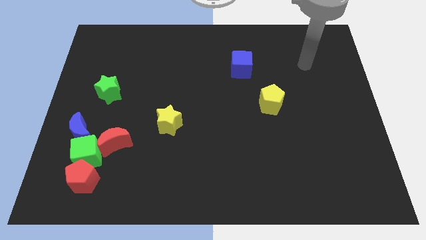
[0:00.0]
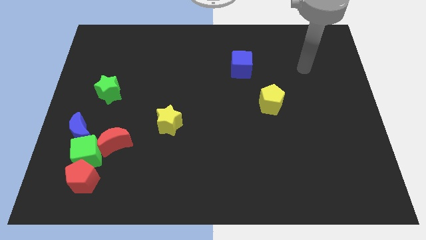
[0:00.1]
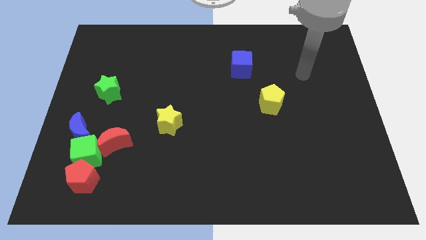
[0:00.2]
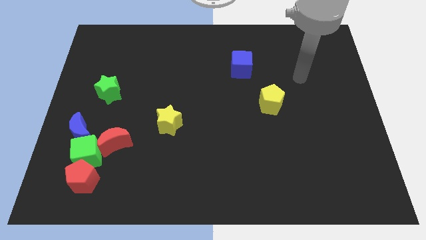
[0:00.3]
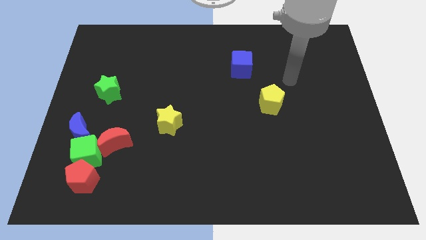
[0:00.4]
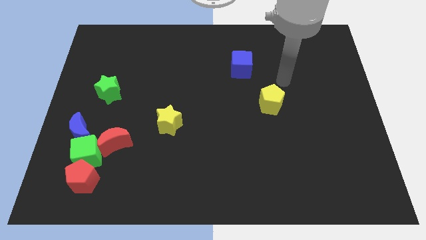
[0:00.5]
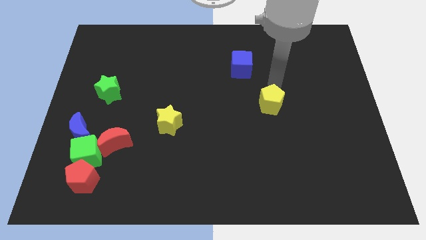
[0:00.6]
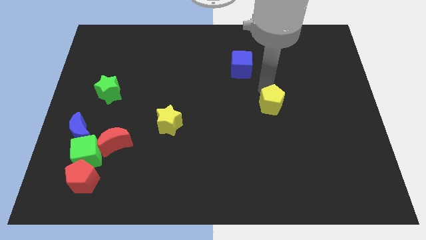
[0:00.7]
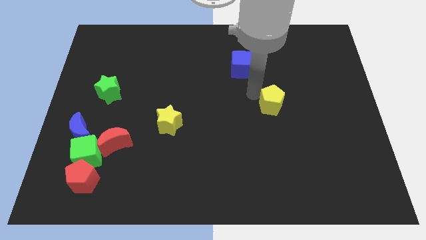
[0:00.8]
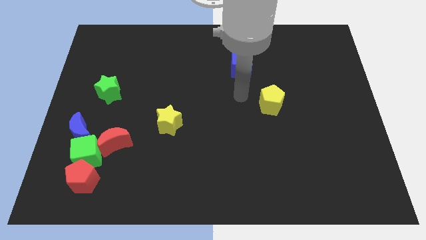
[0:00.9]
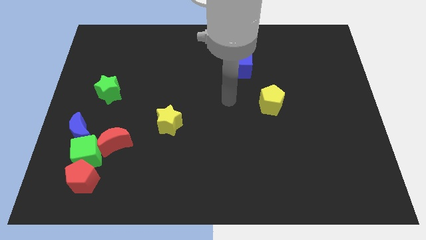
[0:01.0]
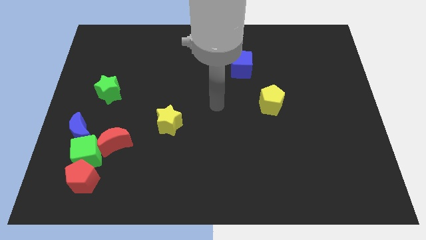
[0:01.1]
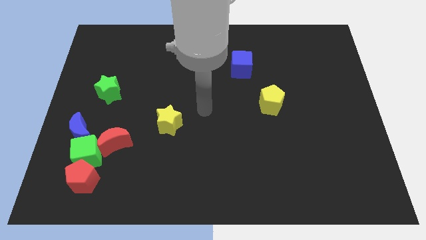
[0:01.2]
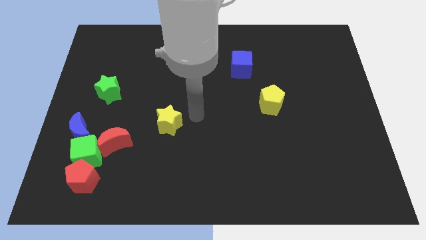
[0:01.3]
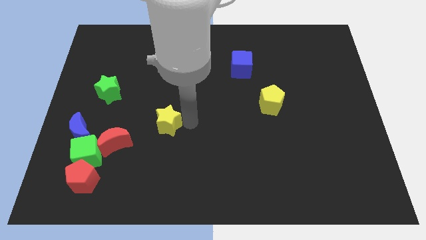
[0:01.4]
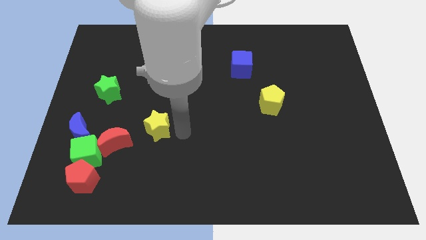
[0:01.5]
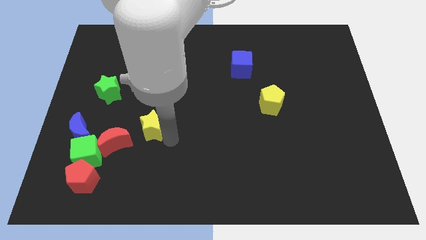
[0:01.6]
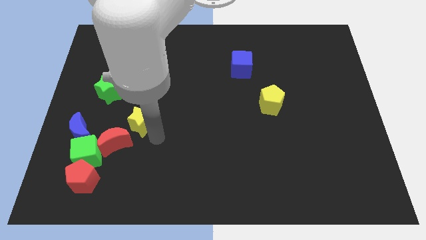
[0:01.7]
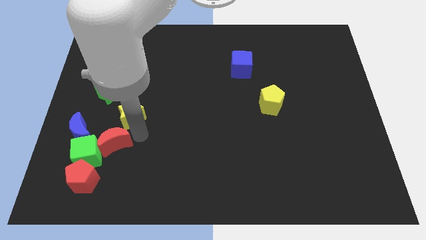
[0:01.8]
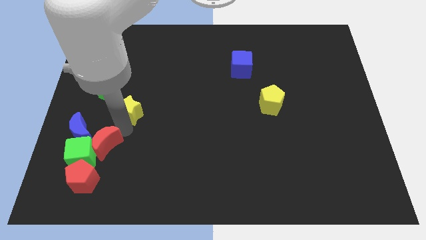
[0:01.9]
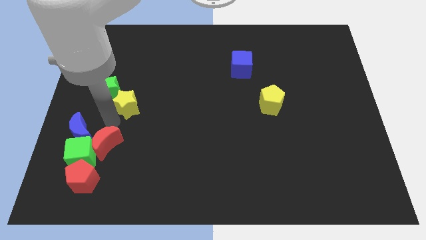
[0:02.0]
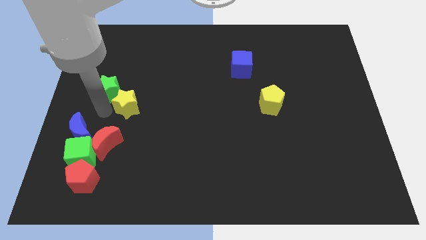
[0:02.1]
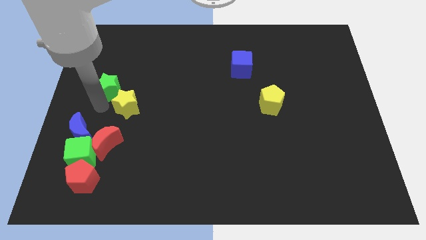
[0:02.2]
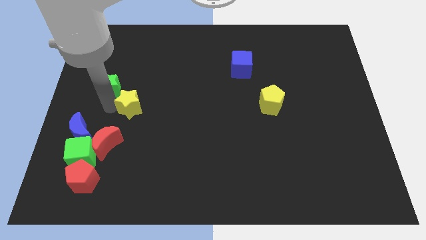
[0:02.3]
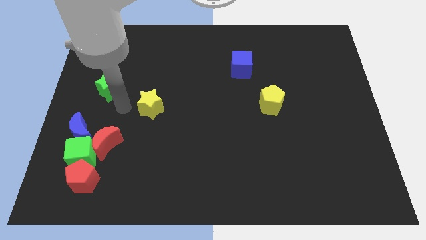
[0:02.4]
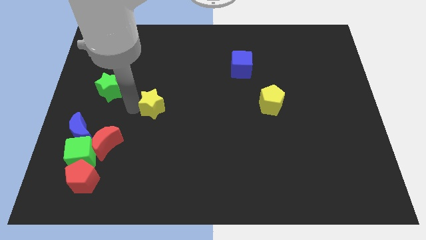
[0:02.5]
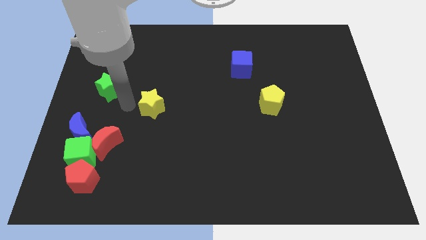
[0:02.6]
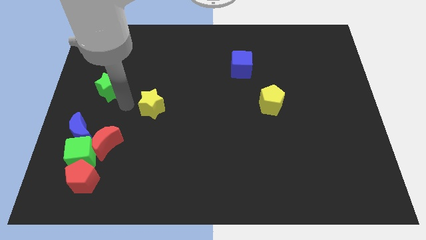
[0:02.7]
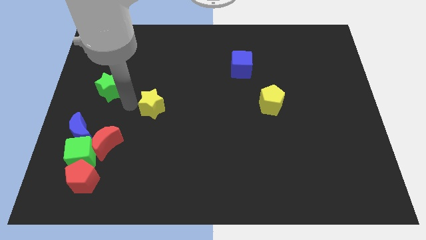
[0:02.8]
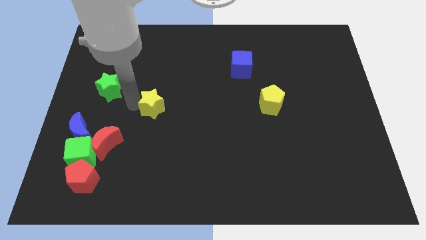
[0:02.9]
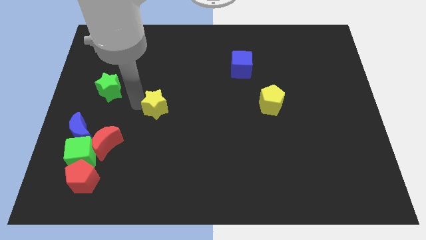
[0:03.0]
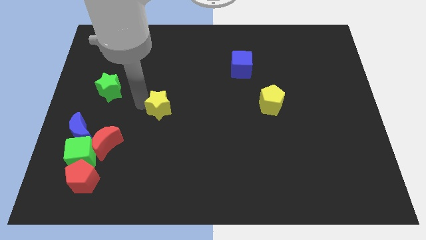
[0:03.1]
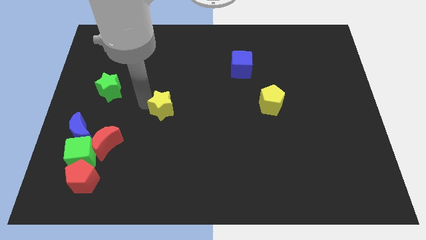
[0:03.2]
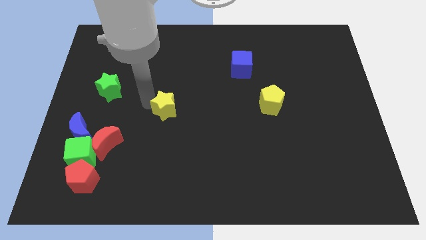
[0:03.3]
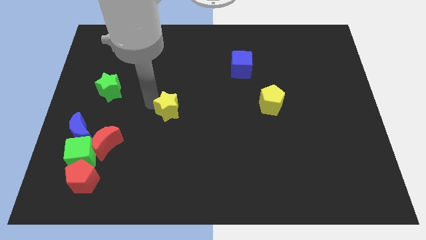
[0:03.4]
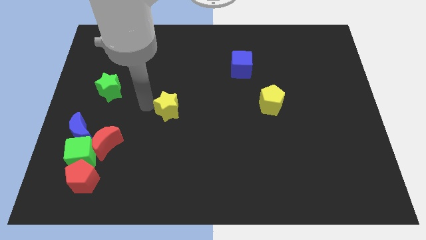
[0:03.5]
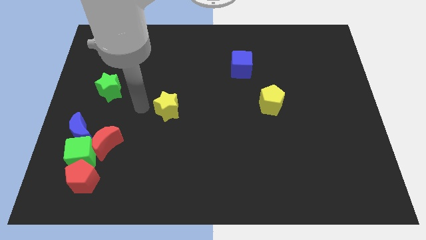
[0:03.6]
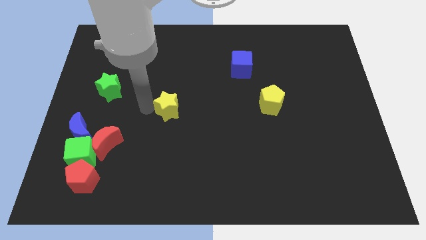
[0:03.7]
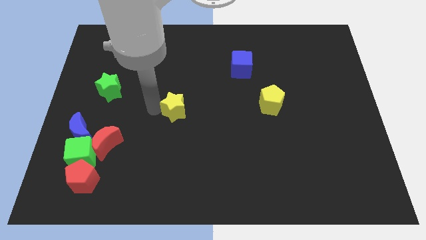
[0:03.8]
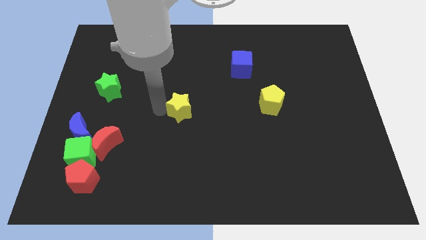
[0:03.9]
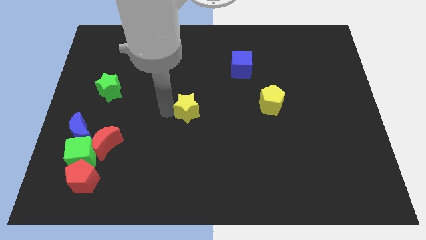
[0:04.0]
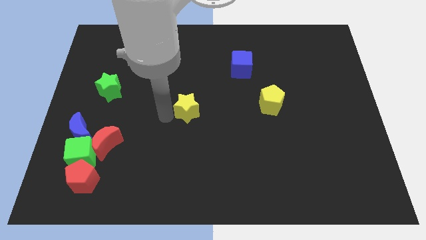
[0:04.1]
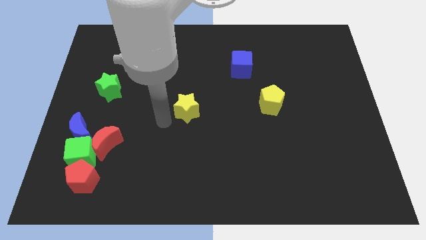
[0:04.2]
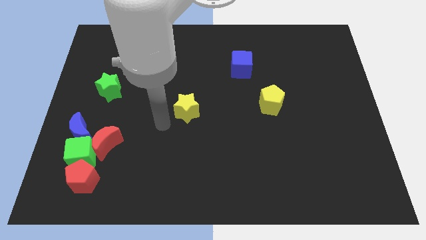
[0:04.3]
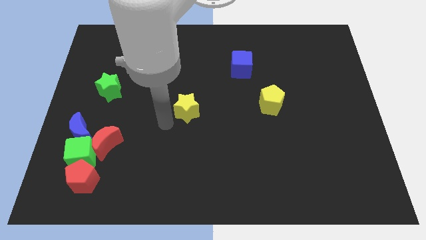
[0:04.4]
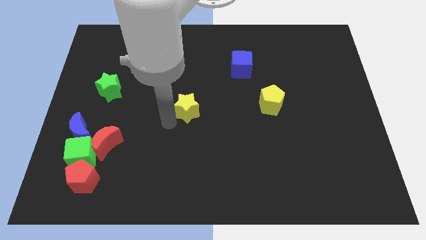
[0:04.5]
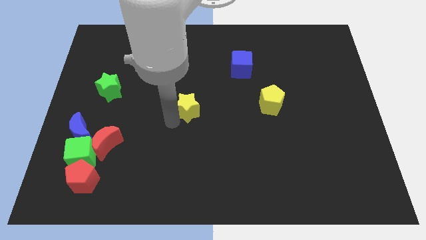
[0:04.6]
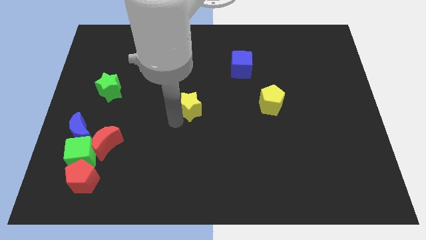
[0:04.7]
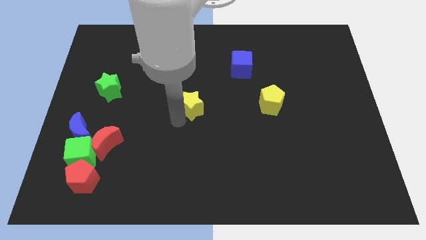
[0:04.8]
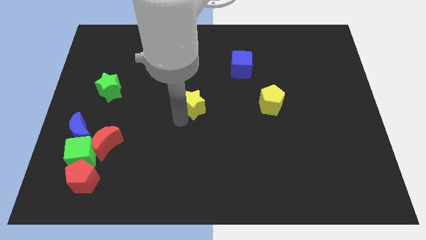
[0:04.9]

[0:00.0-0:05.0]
push the yellow star somewhat upwards and right

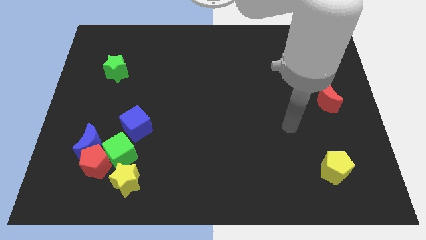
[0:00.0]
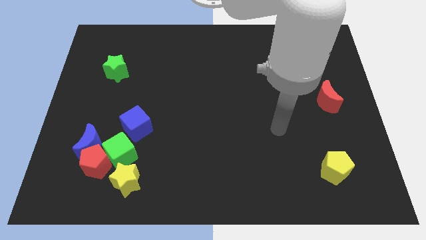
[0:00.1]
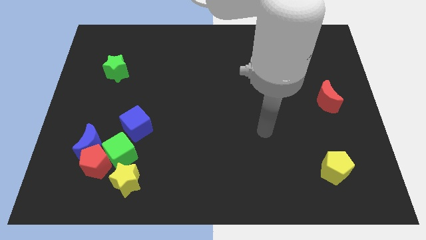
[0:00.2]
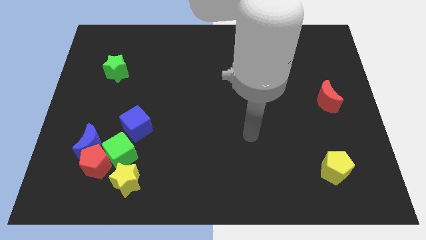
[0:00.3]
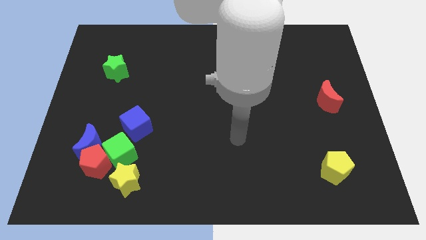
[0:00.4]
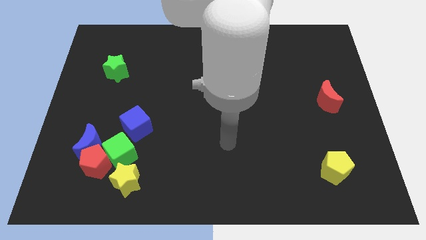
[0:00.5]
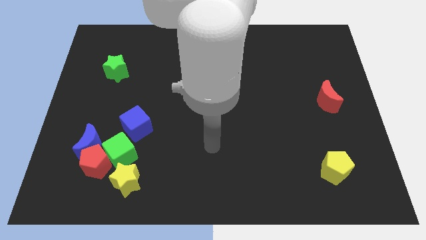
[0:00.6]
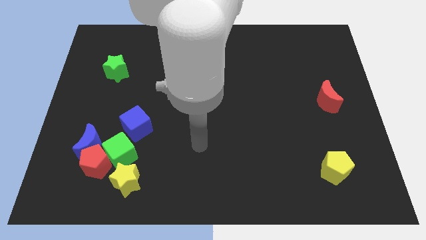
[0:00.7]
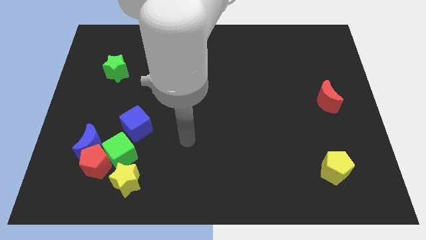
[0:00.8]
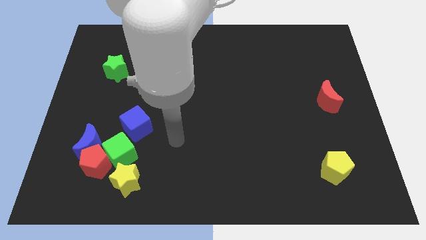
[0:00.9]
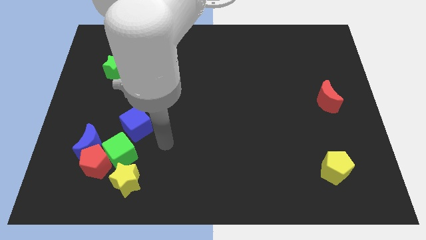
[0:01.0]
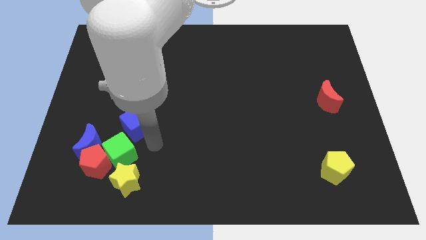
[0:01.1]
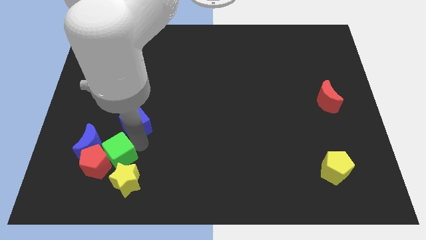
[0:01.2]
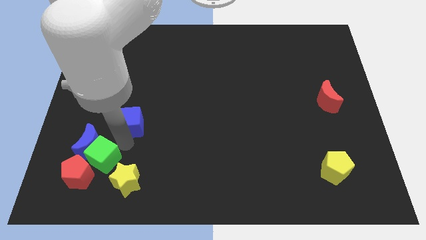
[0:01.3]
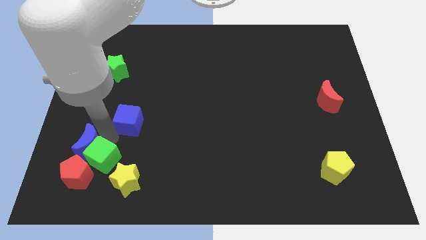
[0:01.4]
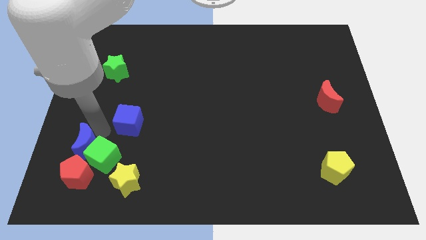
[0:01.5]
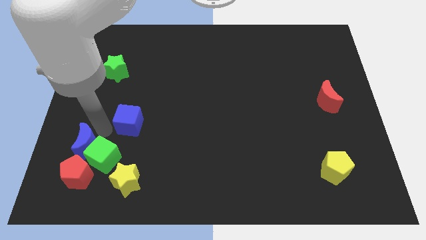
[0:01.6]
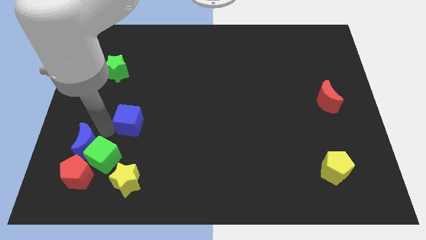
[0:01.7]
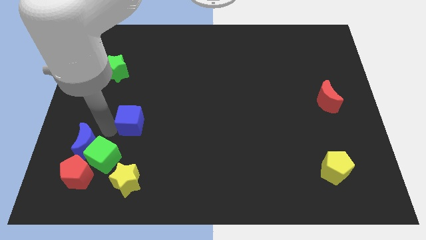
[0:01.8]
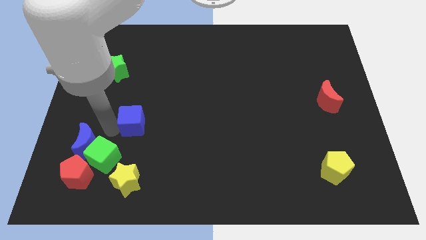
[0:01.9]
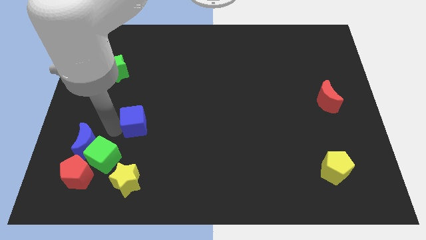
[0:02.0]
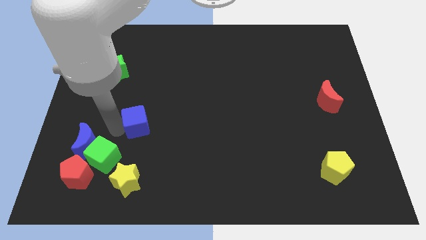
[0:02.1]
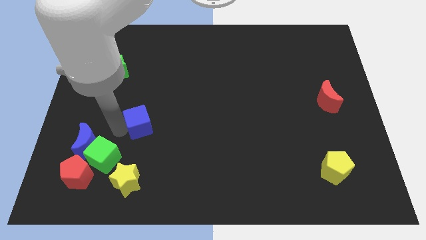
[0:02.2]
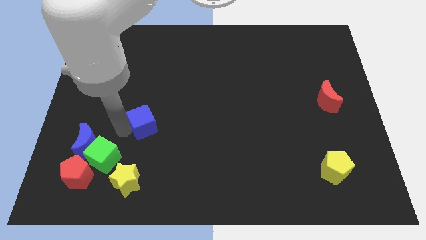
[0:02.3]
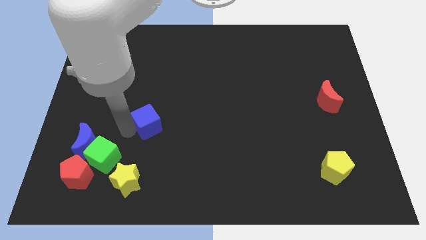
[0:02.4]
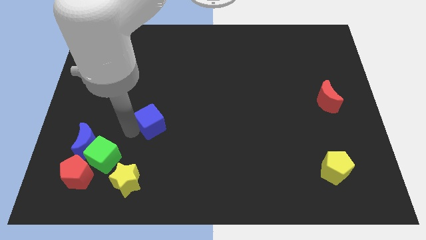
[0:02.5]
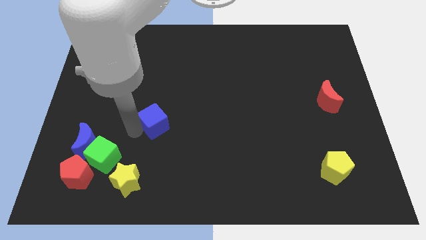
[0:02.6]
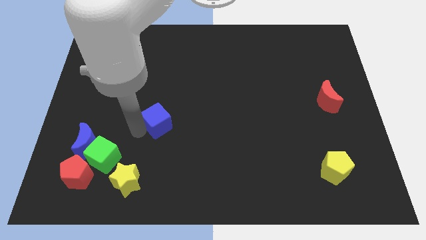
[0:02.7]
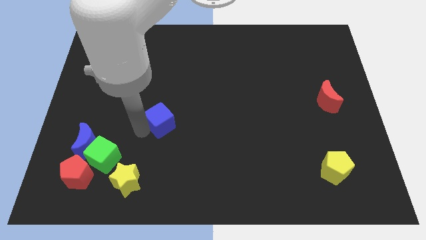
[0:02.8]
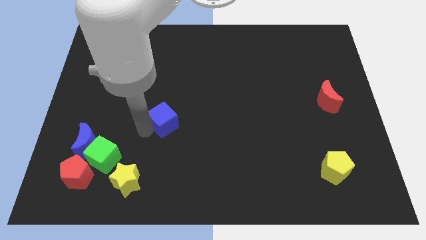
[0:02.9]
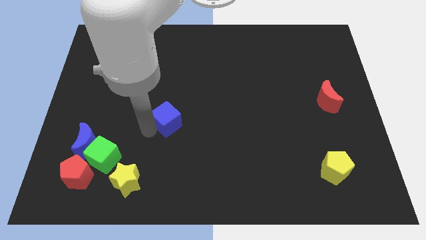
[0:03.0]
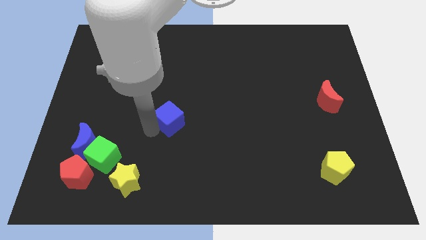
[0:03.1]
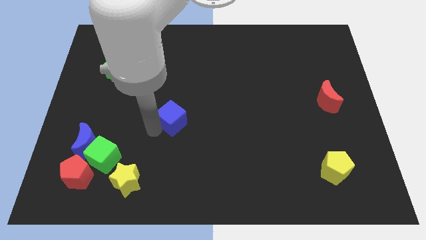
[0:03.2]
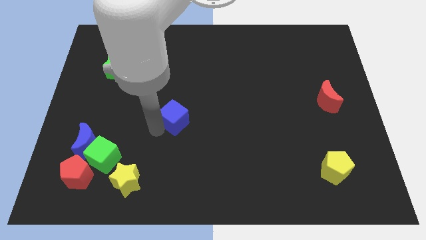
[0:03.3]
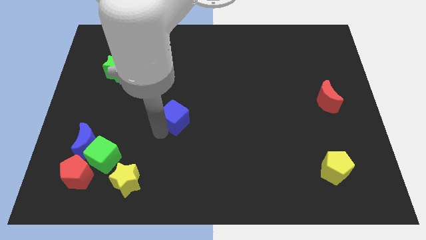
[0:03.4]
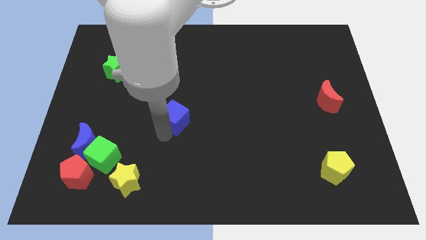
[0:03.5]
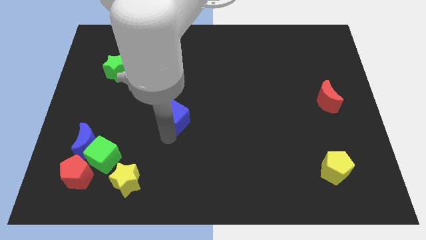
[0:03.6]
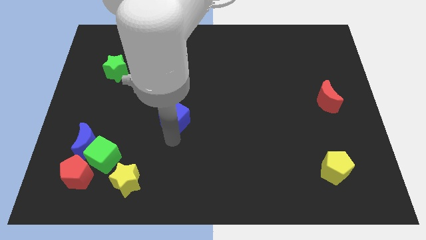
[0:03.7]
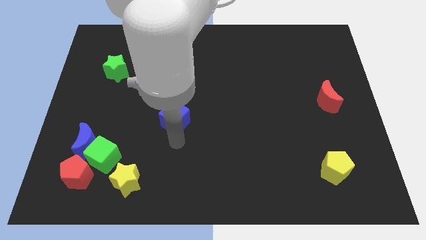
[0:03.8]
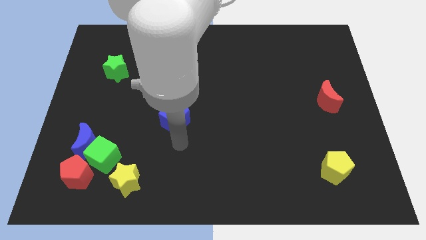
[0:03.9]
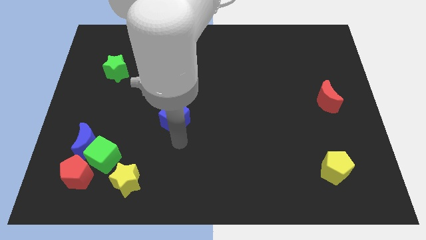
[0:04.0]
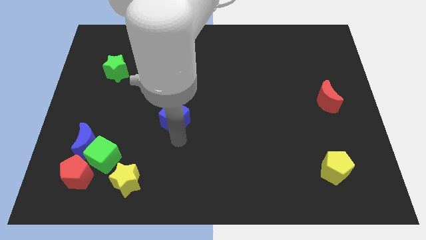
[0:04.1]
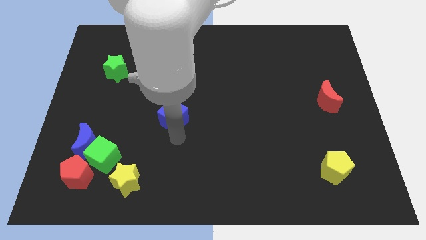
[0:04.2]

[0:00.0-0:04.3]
push the blue cube upwards and then right a bit
